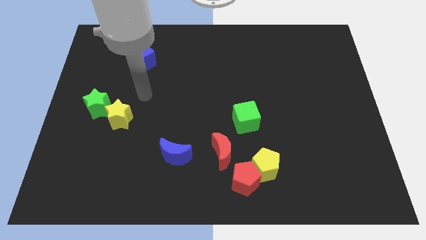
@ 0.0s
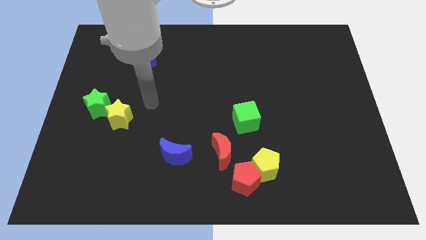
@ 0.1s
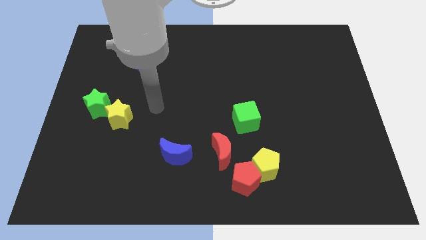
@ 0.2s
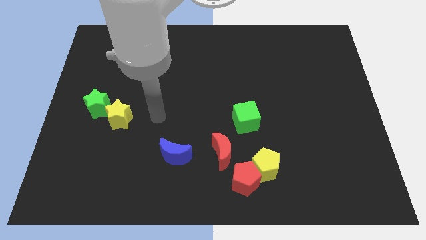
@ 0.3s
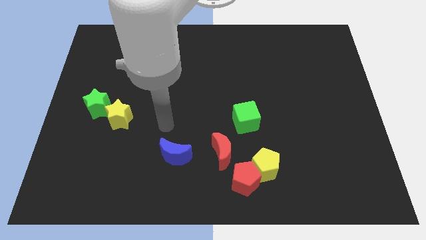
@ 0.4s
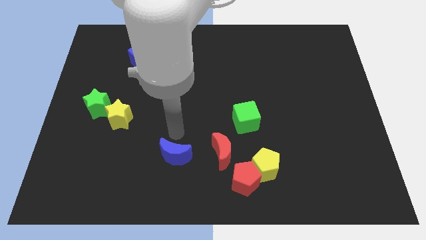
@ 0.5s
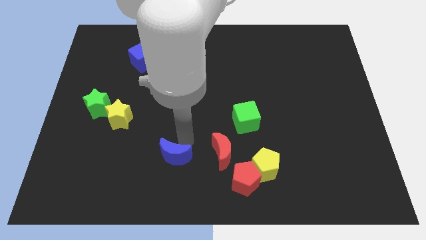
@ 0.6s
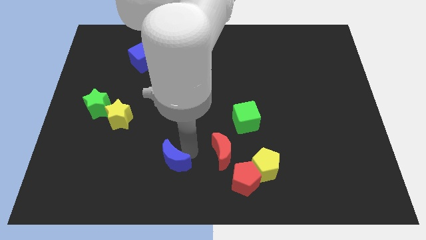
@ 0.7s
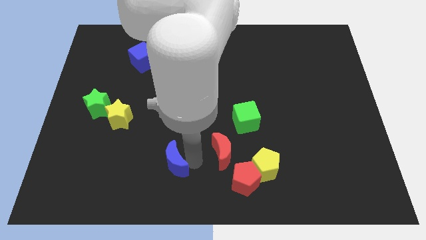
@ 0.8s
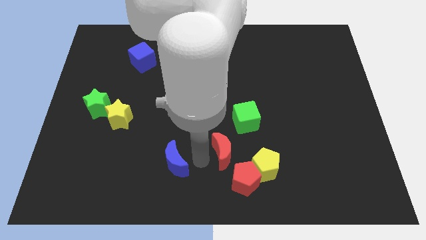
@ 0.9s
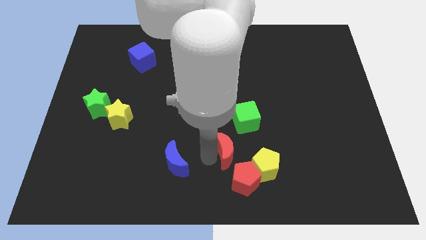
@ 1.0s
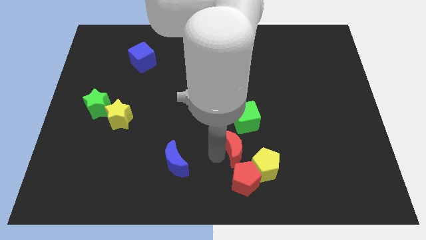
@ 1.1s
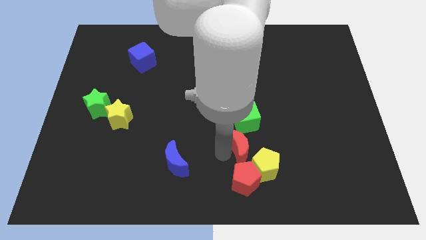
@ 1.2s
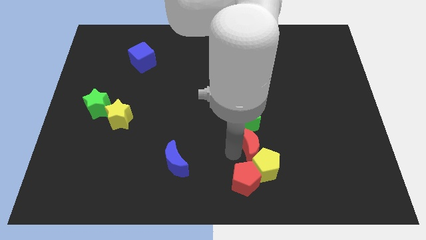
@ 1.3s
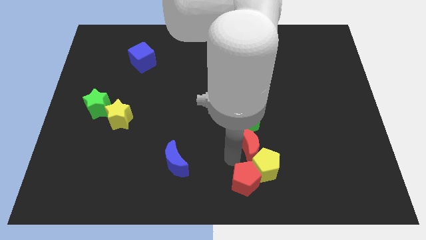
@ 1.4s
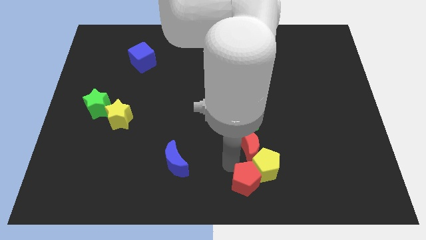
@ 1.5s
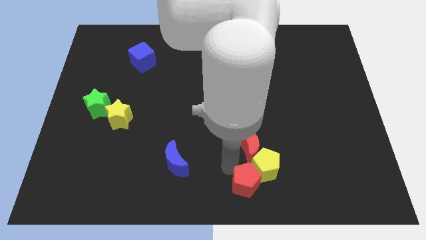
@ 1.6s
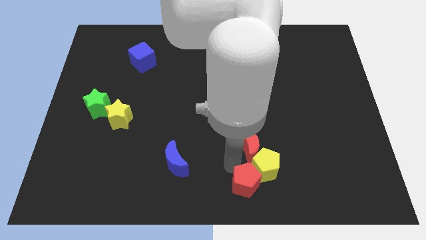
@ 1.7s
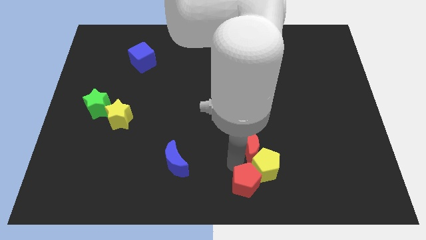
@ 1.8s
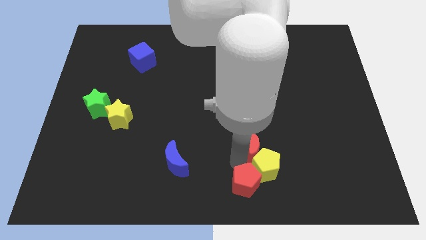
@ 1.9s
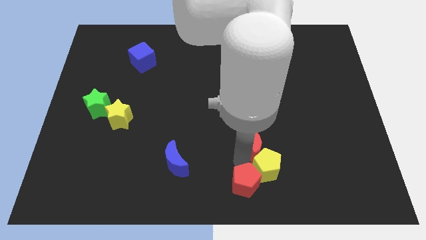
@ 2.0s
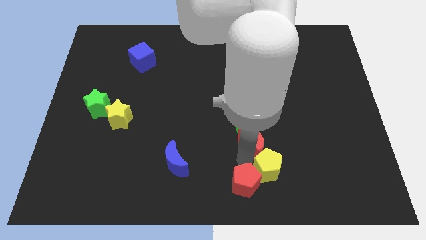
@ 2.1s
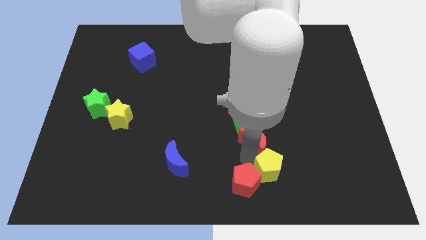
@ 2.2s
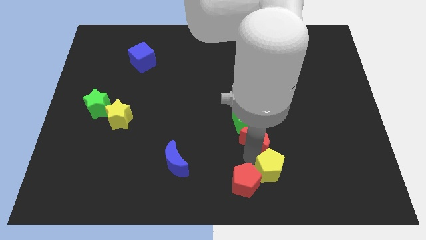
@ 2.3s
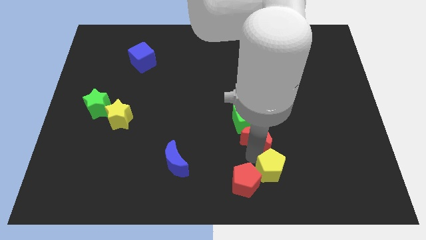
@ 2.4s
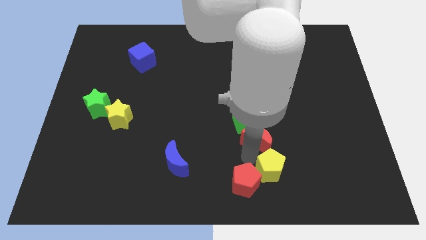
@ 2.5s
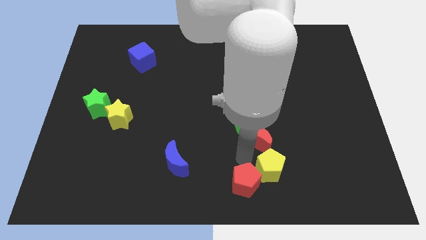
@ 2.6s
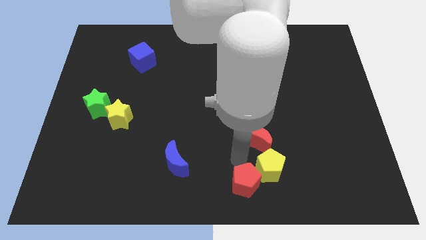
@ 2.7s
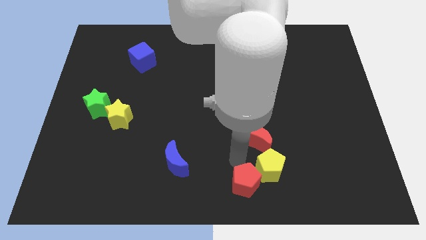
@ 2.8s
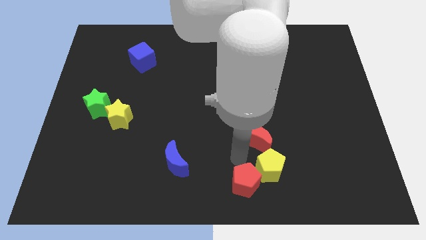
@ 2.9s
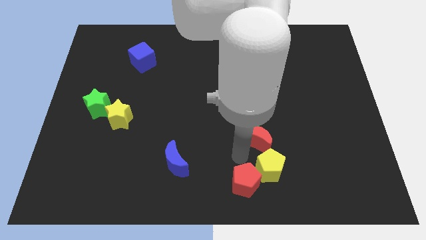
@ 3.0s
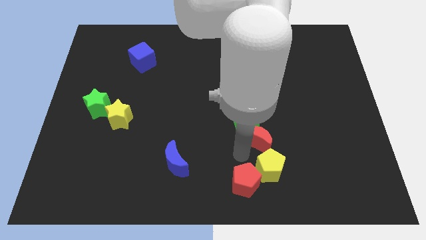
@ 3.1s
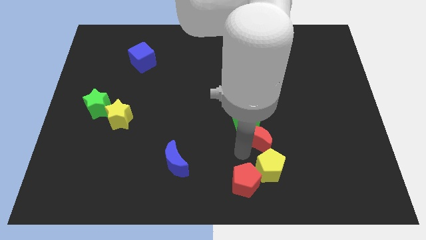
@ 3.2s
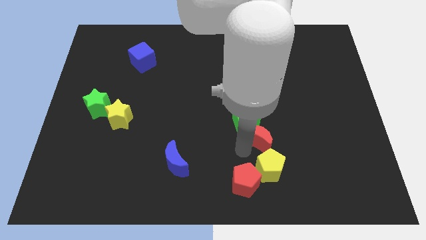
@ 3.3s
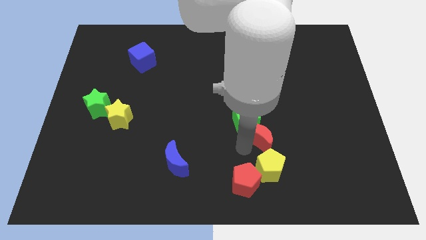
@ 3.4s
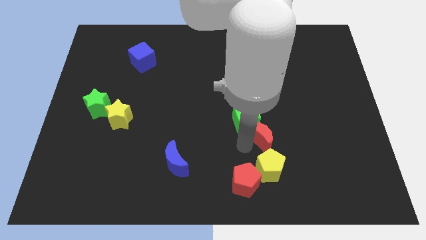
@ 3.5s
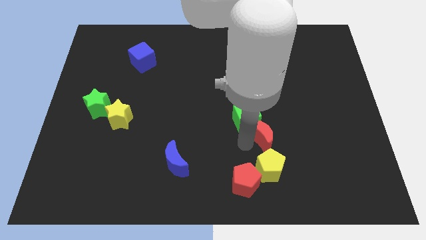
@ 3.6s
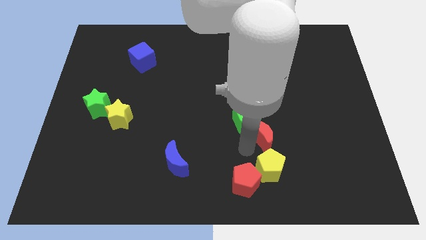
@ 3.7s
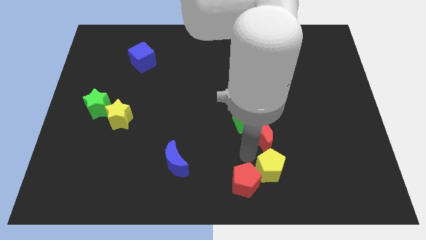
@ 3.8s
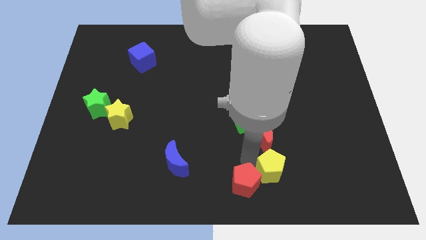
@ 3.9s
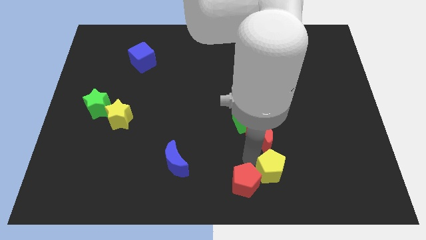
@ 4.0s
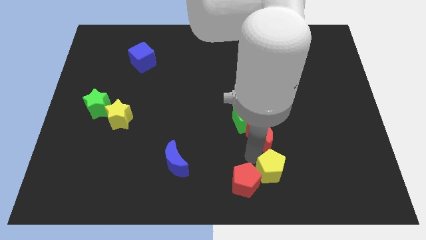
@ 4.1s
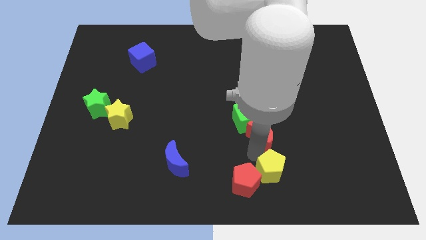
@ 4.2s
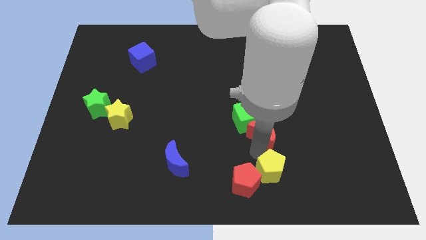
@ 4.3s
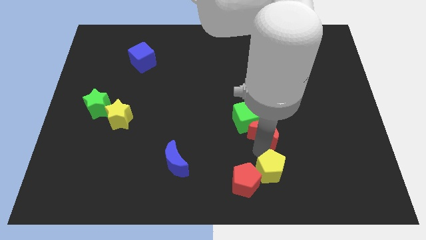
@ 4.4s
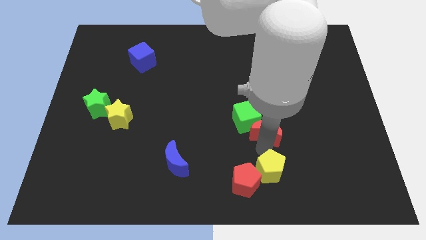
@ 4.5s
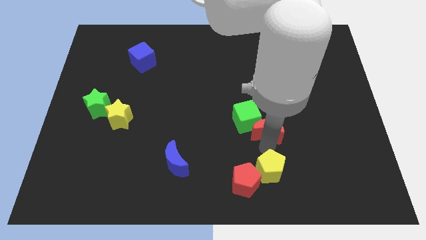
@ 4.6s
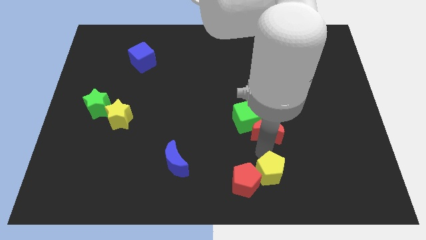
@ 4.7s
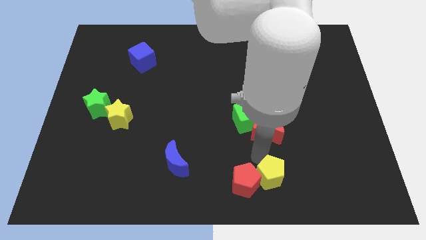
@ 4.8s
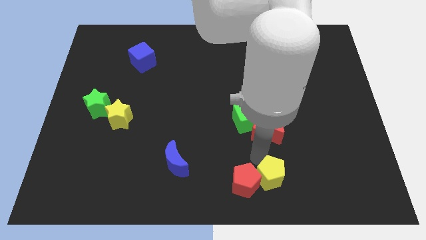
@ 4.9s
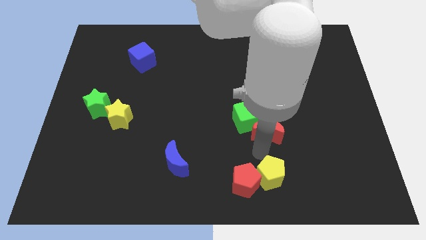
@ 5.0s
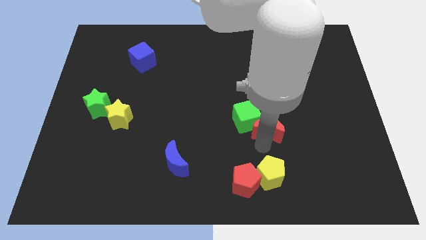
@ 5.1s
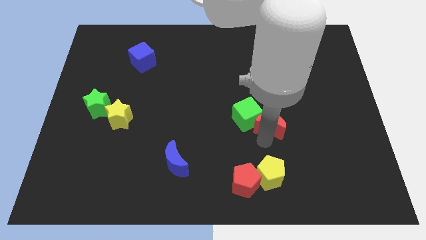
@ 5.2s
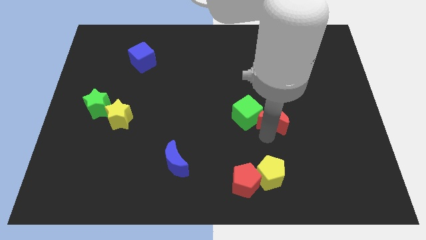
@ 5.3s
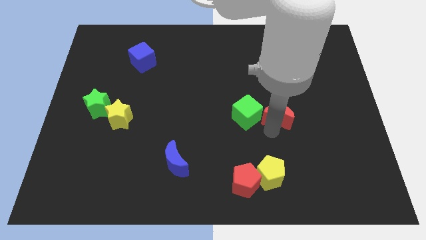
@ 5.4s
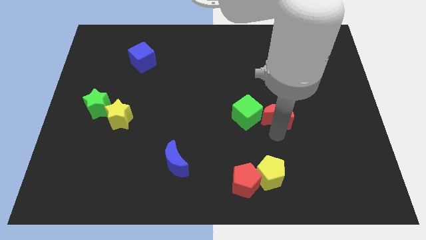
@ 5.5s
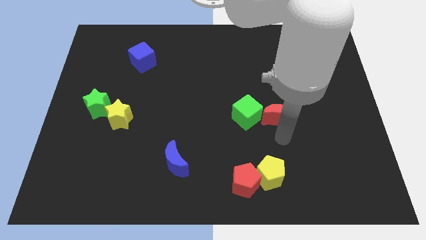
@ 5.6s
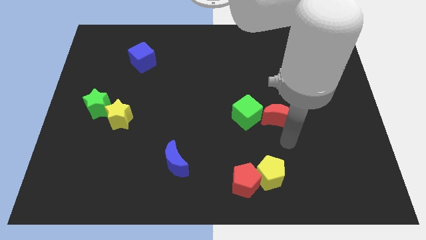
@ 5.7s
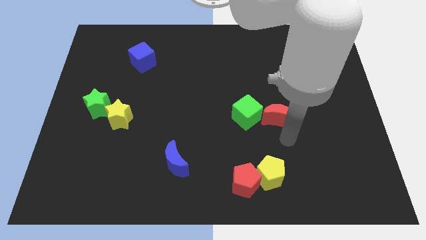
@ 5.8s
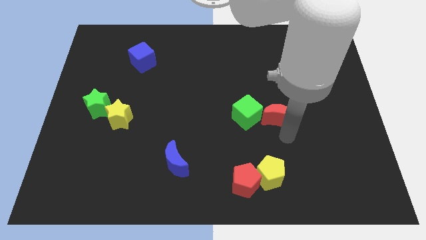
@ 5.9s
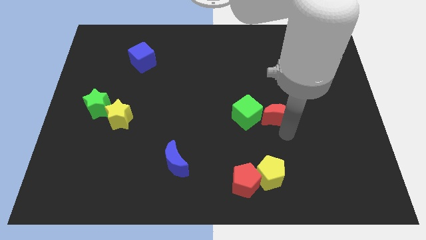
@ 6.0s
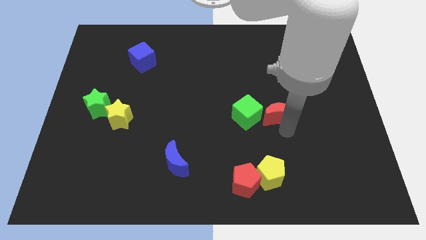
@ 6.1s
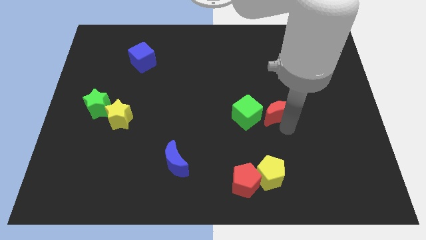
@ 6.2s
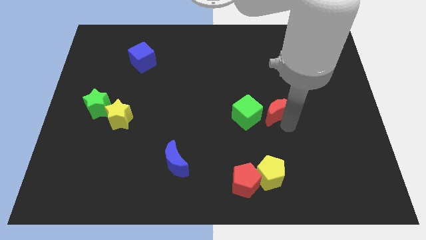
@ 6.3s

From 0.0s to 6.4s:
put the red moon diagonally up and to the right of the green cube
